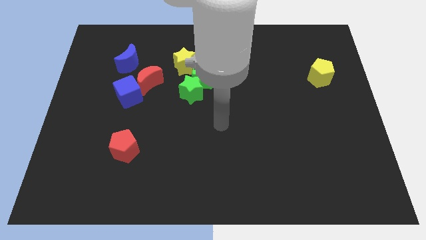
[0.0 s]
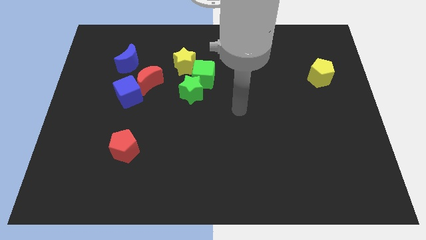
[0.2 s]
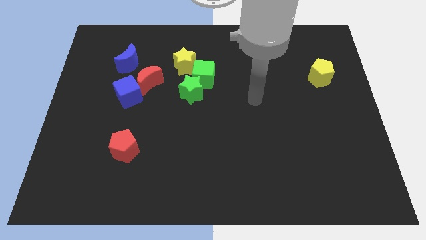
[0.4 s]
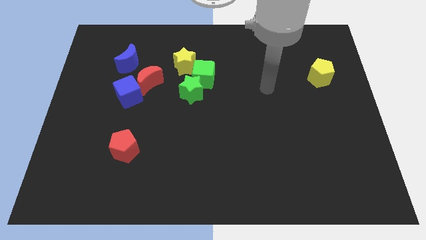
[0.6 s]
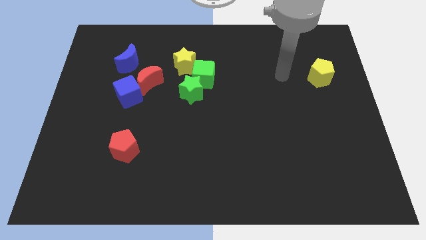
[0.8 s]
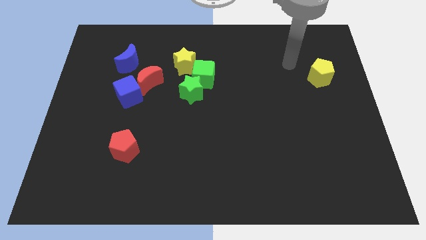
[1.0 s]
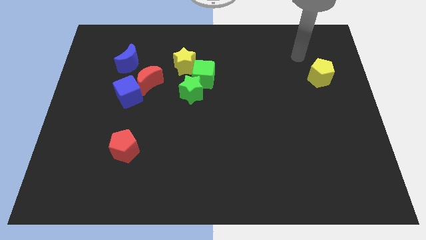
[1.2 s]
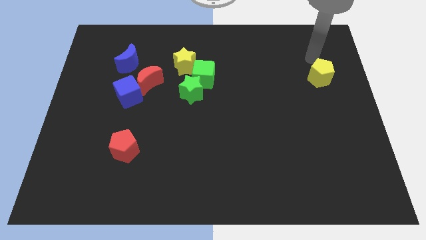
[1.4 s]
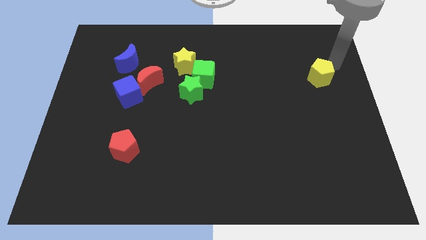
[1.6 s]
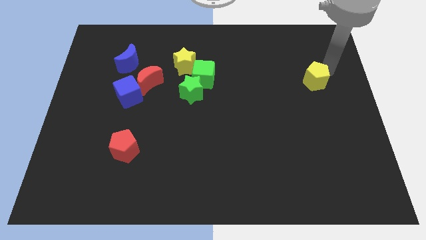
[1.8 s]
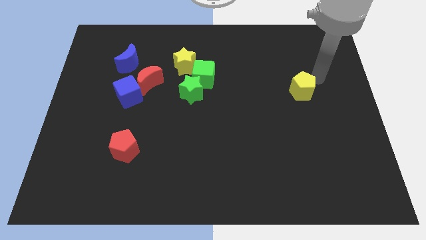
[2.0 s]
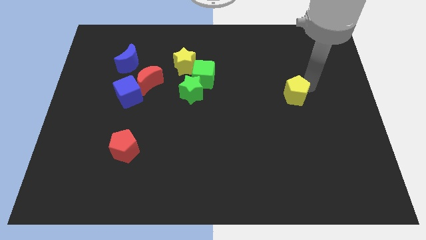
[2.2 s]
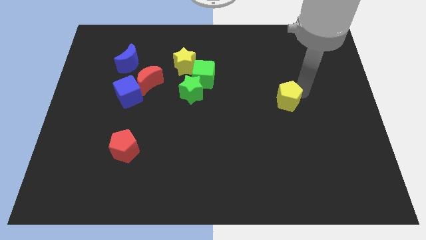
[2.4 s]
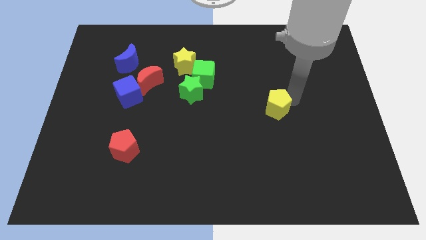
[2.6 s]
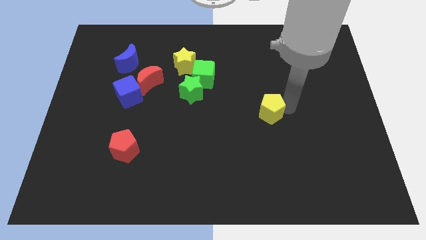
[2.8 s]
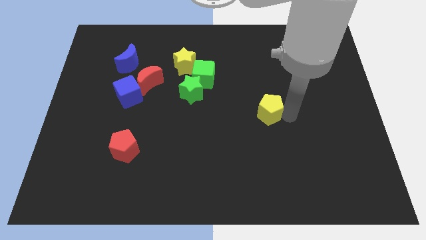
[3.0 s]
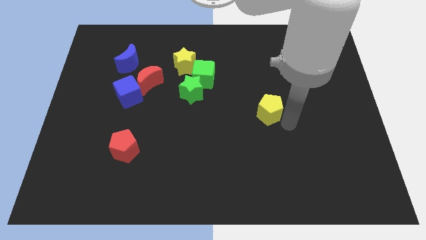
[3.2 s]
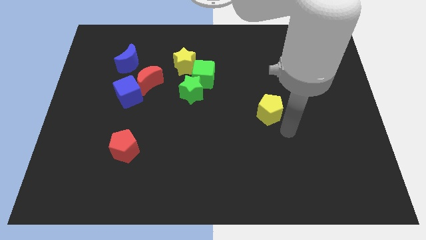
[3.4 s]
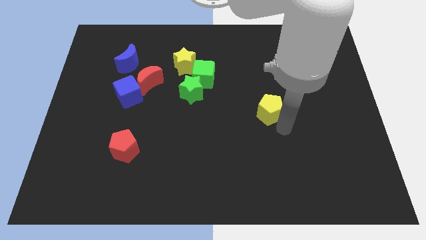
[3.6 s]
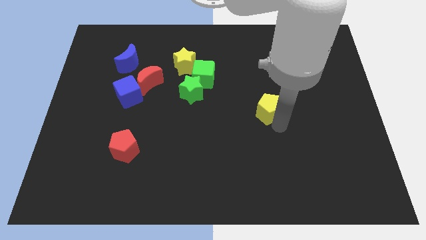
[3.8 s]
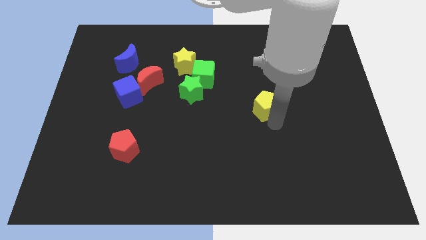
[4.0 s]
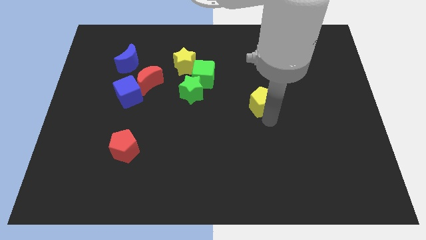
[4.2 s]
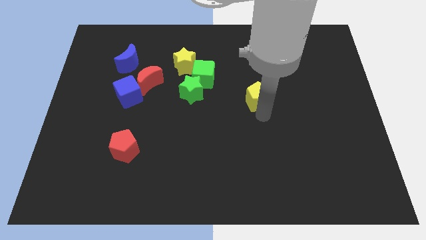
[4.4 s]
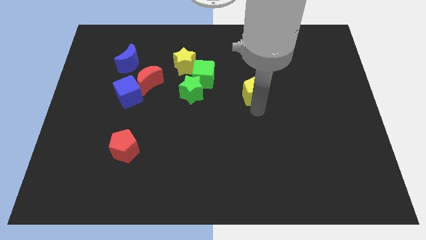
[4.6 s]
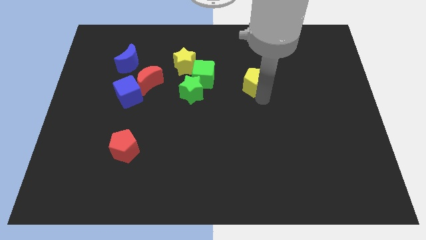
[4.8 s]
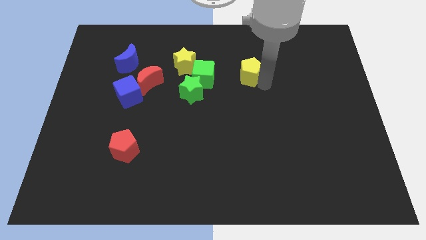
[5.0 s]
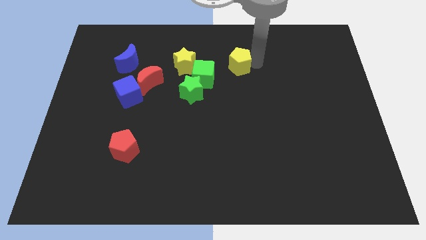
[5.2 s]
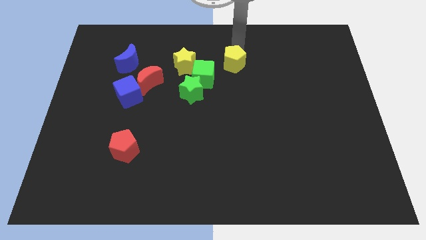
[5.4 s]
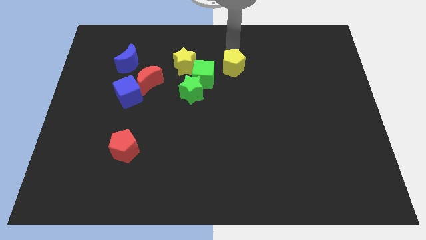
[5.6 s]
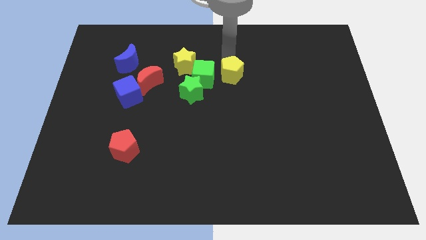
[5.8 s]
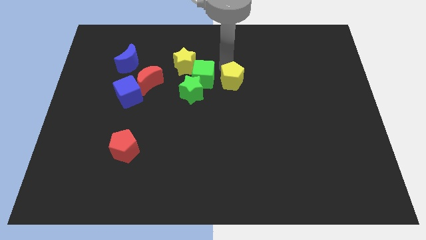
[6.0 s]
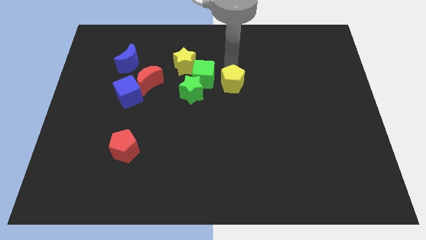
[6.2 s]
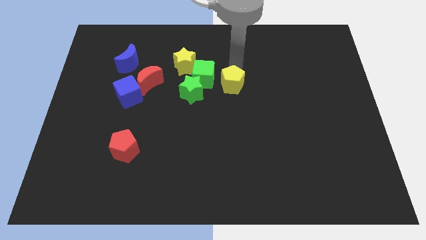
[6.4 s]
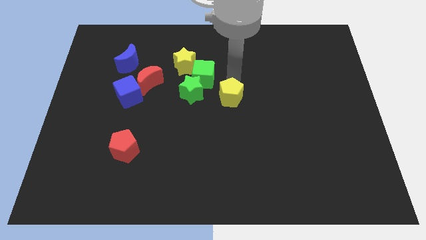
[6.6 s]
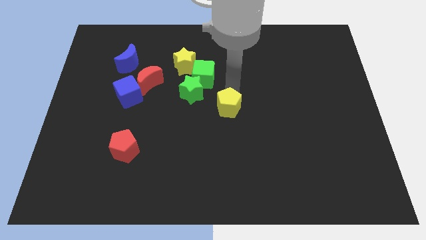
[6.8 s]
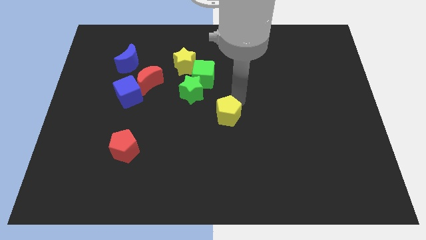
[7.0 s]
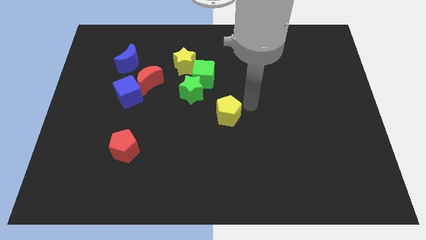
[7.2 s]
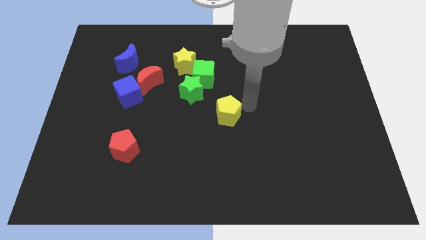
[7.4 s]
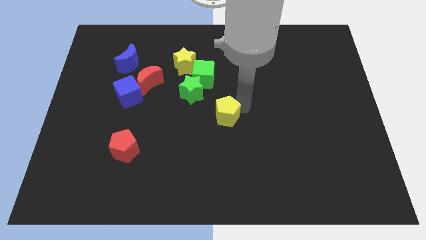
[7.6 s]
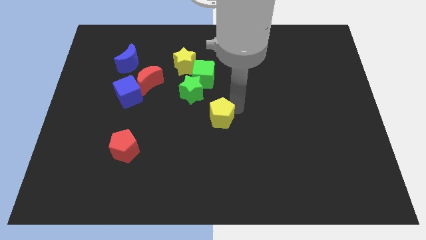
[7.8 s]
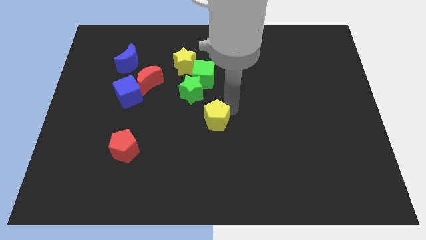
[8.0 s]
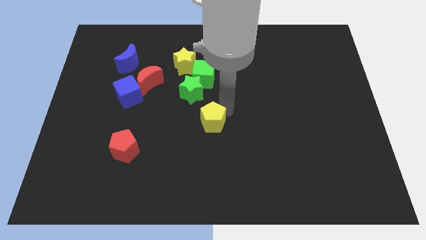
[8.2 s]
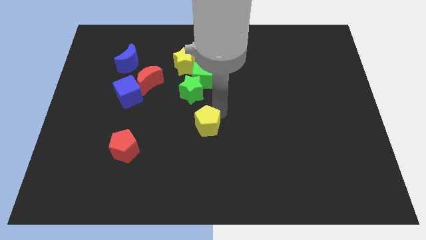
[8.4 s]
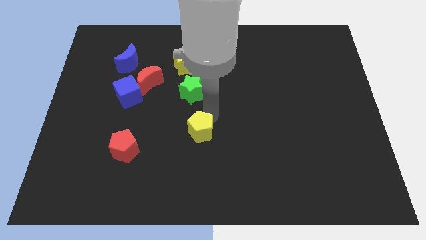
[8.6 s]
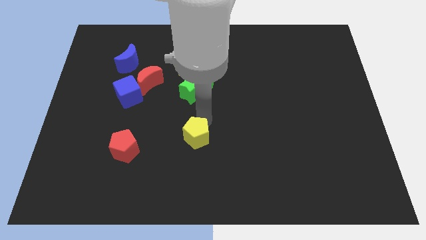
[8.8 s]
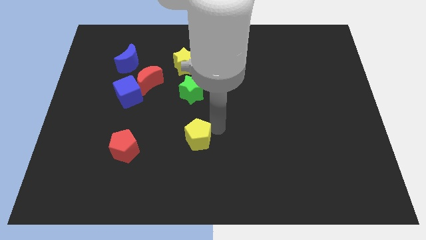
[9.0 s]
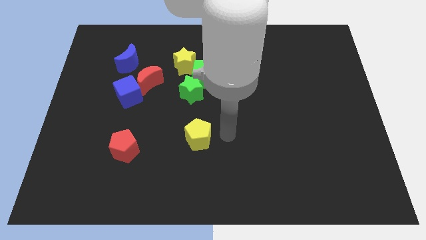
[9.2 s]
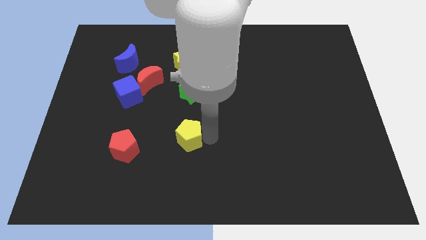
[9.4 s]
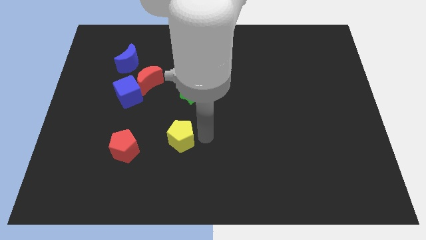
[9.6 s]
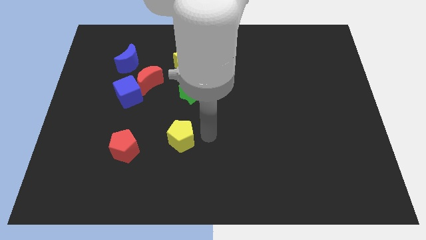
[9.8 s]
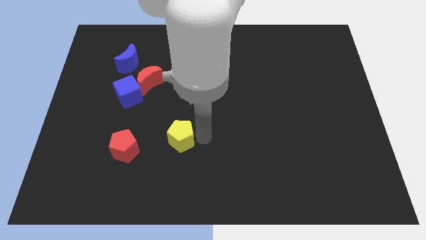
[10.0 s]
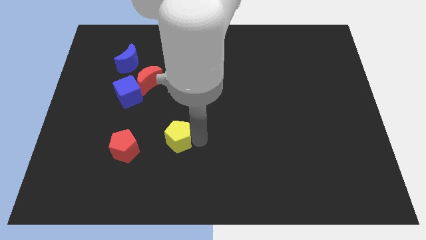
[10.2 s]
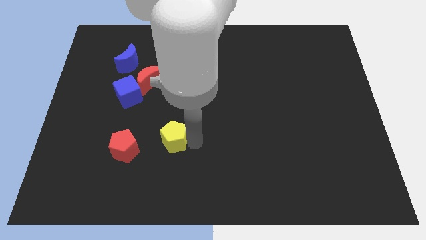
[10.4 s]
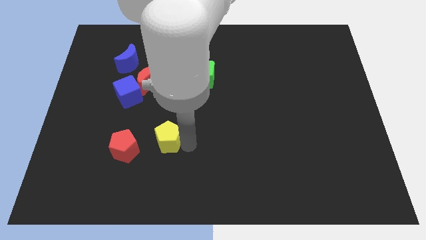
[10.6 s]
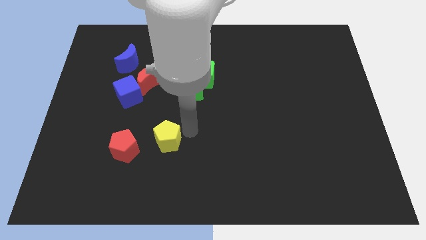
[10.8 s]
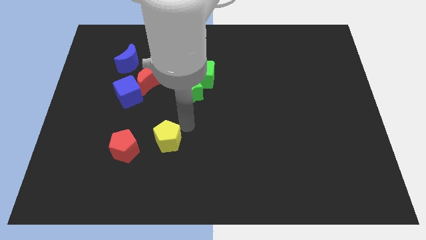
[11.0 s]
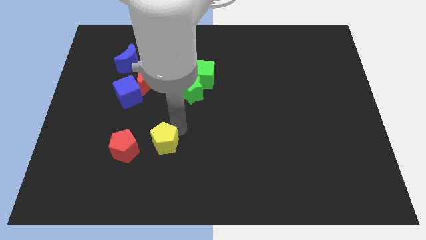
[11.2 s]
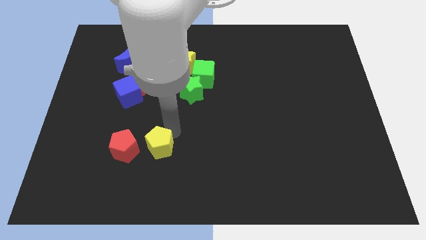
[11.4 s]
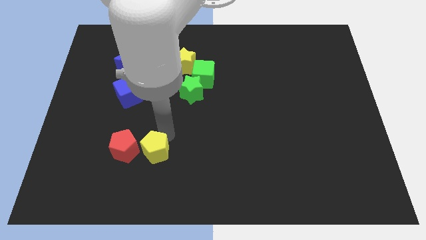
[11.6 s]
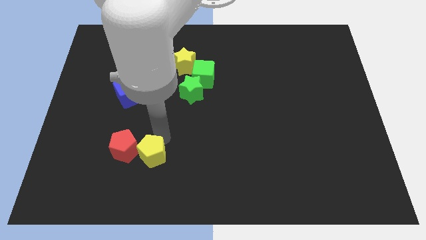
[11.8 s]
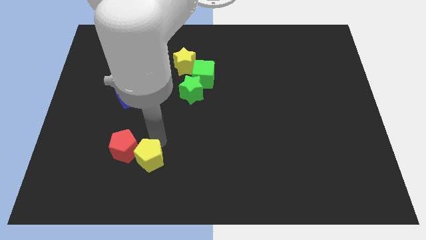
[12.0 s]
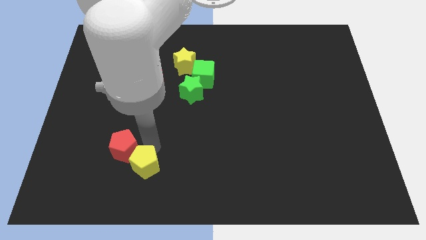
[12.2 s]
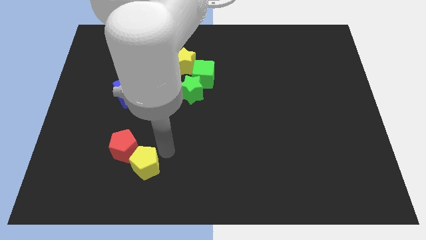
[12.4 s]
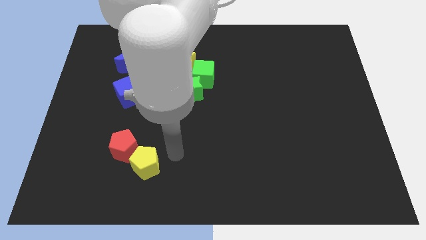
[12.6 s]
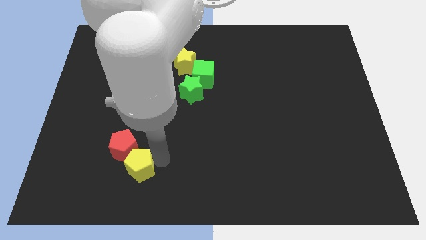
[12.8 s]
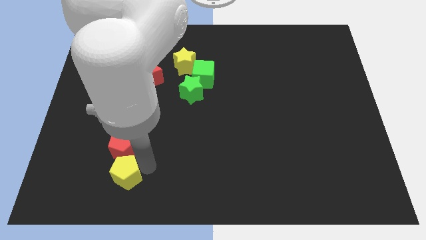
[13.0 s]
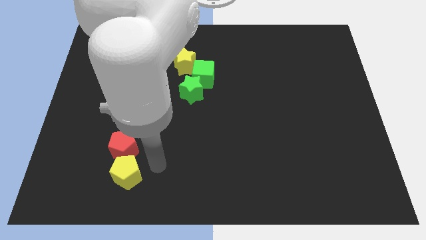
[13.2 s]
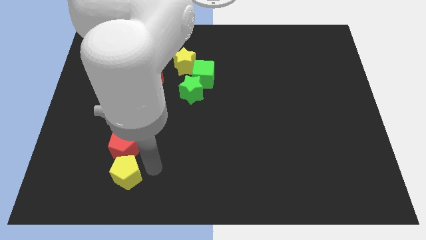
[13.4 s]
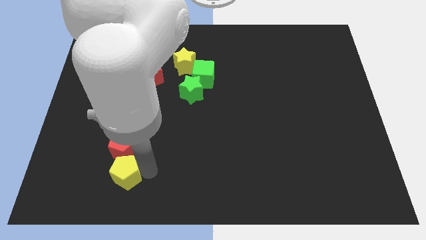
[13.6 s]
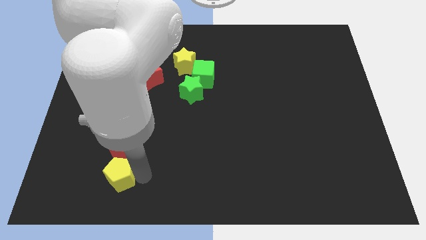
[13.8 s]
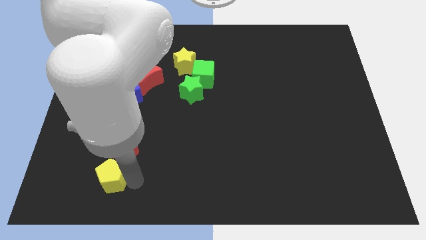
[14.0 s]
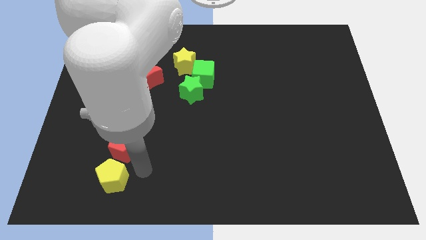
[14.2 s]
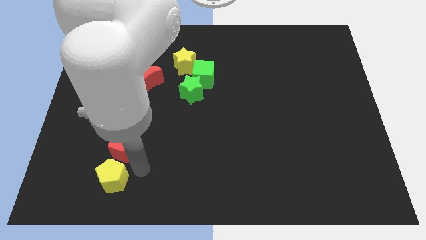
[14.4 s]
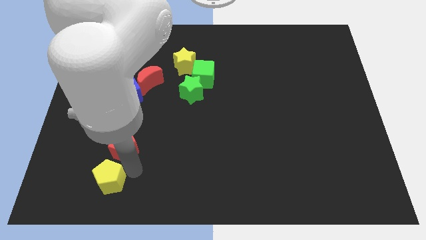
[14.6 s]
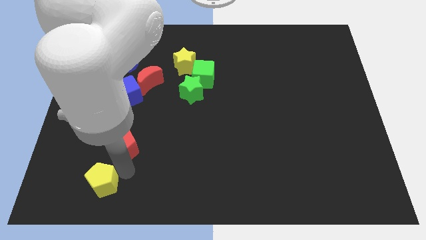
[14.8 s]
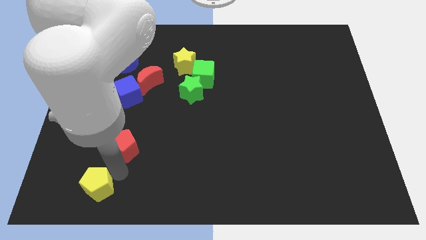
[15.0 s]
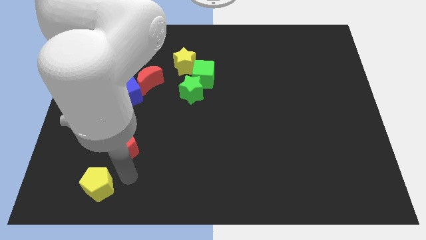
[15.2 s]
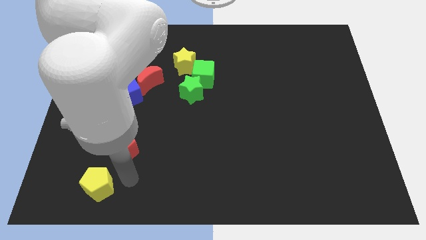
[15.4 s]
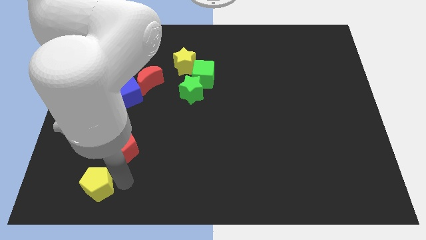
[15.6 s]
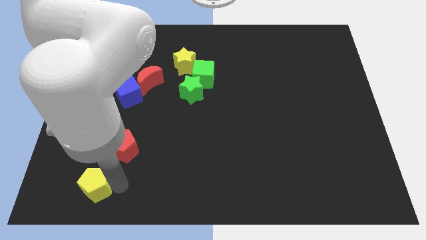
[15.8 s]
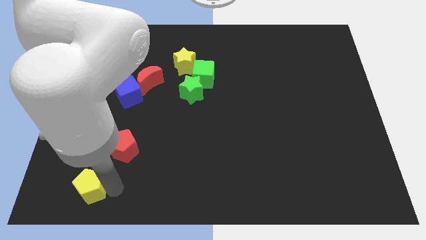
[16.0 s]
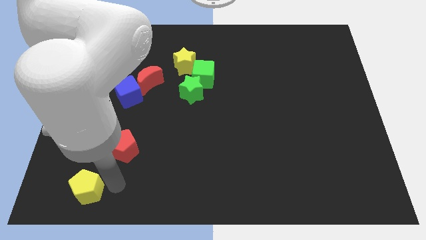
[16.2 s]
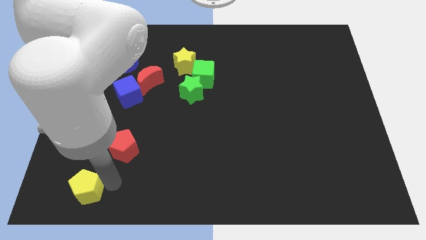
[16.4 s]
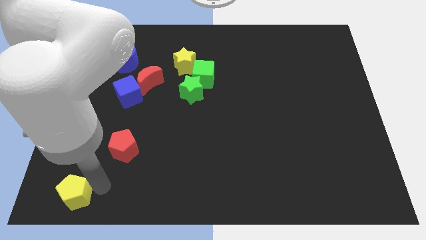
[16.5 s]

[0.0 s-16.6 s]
put the yellow pentagon to the bottom left of the board
